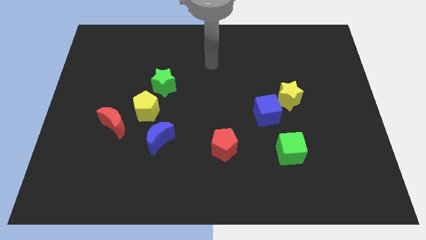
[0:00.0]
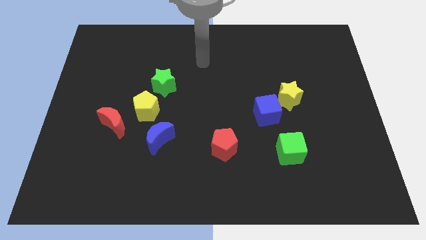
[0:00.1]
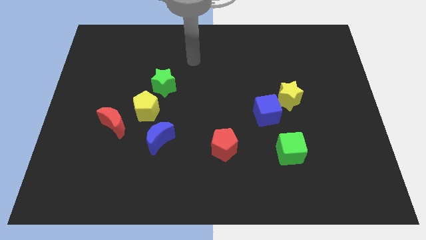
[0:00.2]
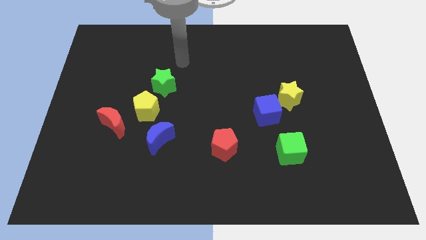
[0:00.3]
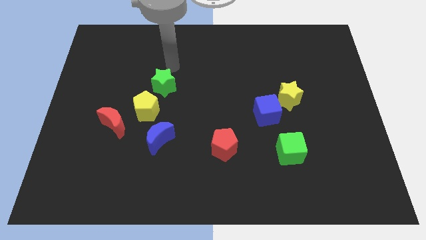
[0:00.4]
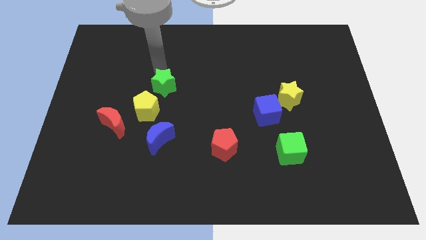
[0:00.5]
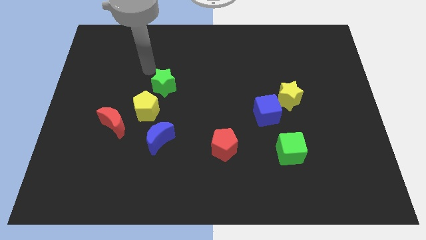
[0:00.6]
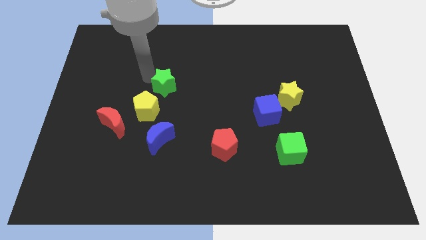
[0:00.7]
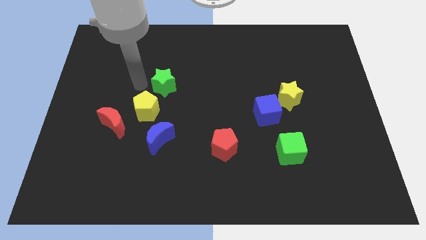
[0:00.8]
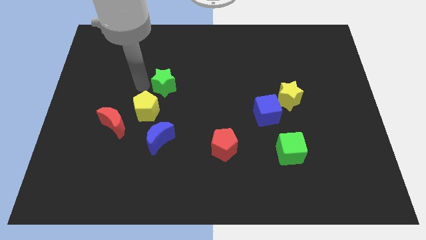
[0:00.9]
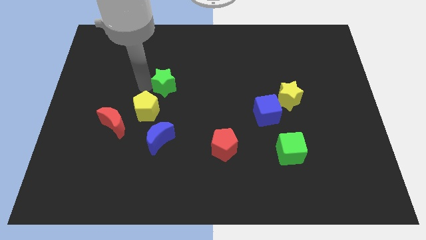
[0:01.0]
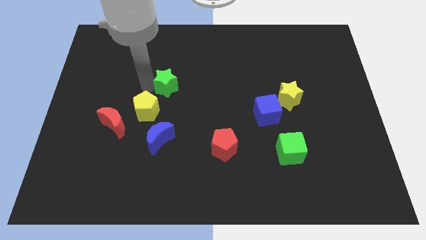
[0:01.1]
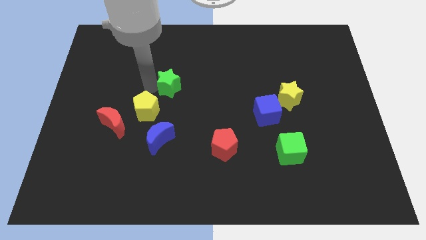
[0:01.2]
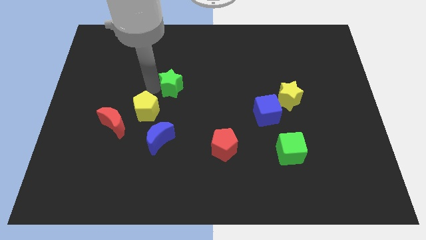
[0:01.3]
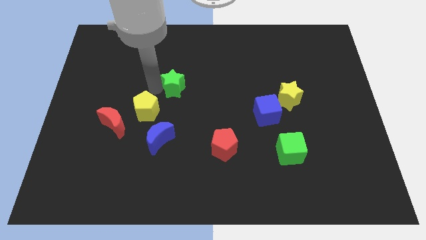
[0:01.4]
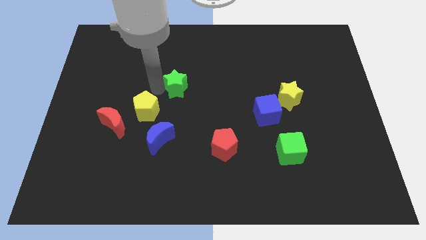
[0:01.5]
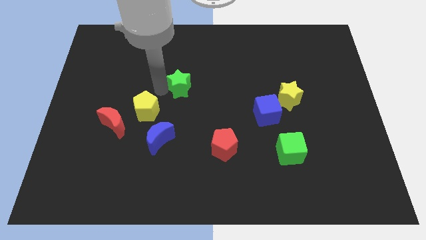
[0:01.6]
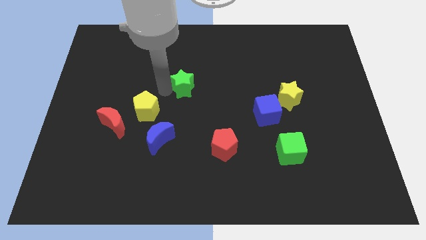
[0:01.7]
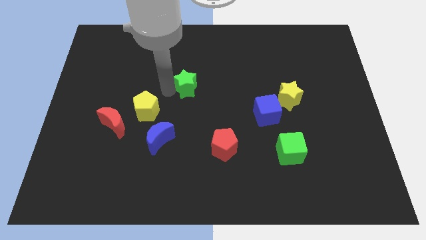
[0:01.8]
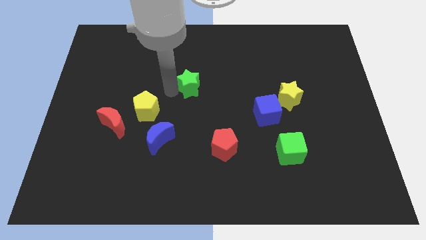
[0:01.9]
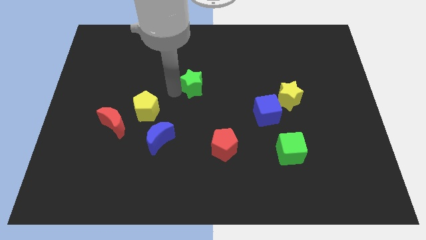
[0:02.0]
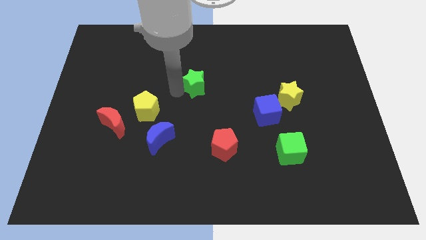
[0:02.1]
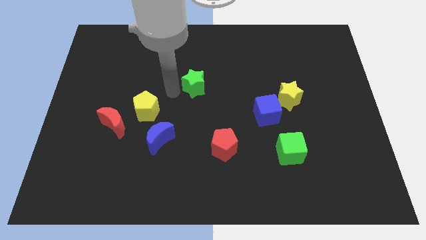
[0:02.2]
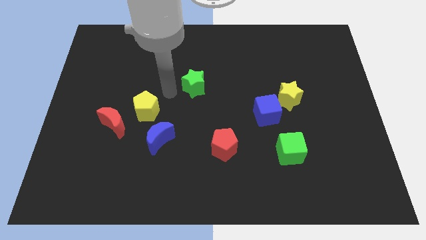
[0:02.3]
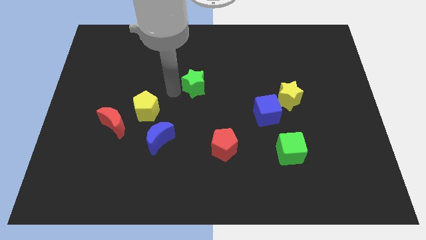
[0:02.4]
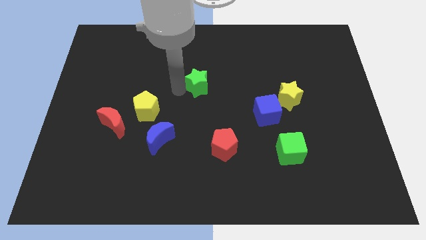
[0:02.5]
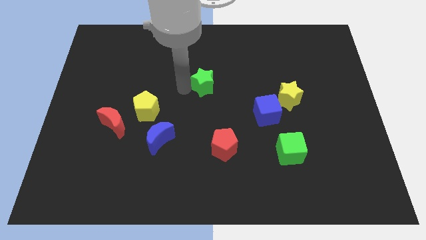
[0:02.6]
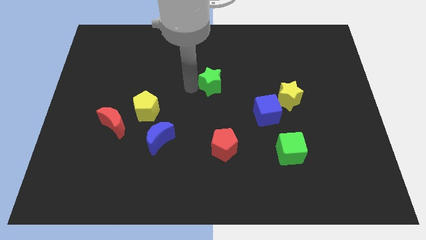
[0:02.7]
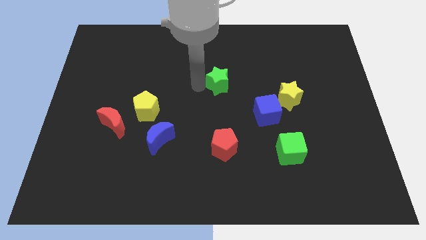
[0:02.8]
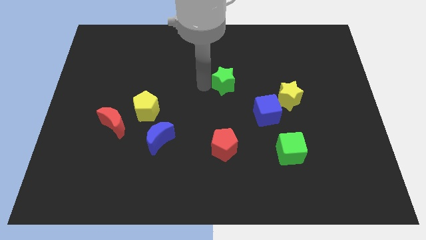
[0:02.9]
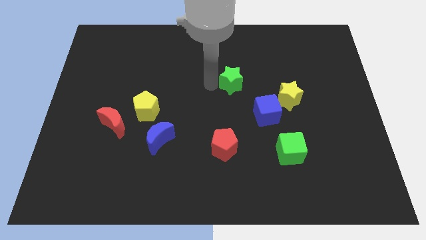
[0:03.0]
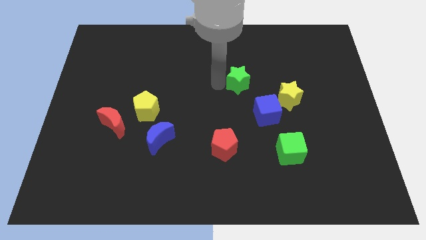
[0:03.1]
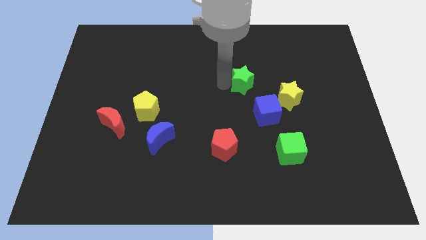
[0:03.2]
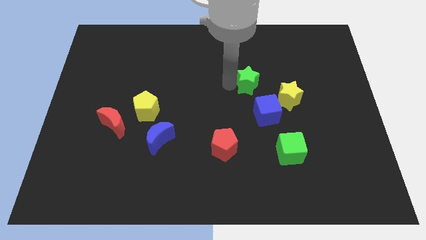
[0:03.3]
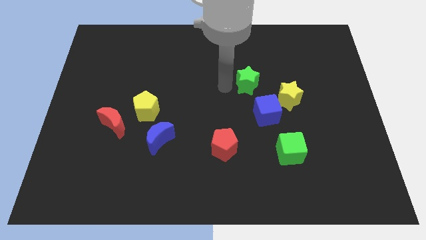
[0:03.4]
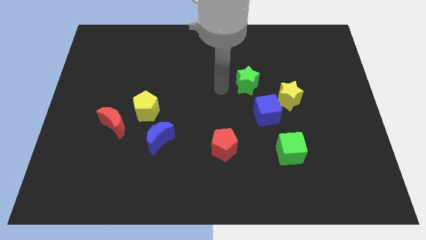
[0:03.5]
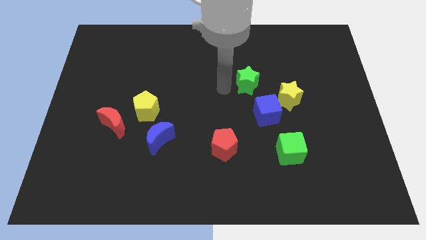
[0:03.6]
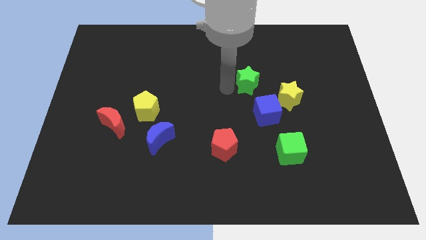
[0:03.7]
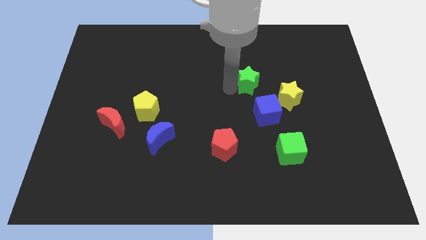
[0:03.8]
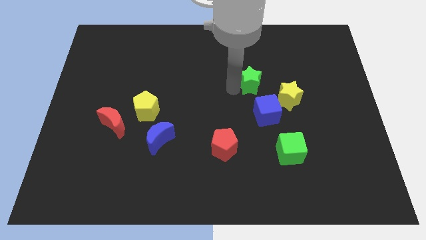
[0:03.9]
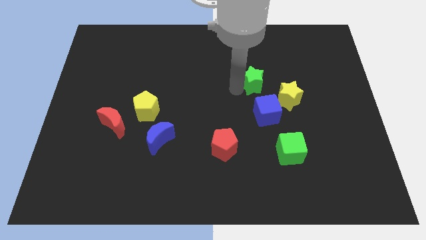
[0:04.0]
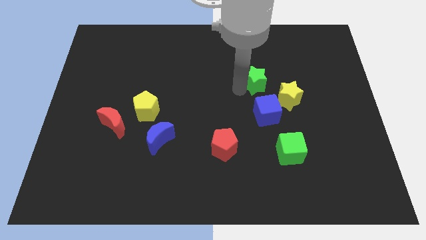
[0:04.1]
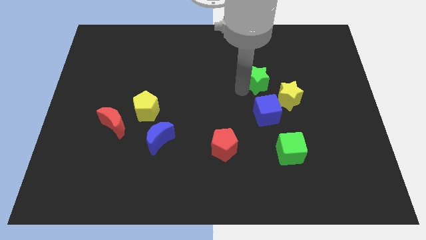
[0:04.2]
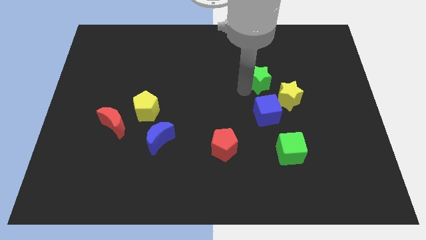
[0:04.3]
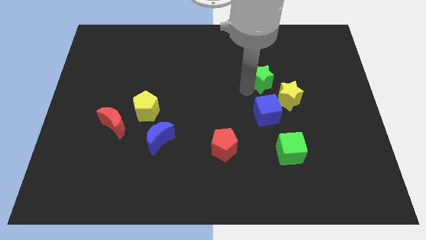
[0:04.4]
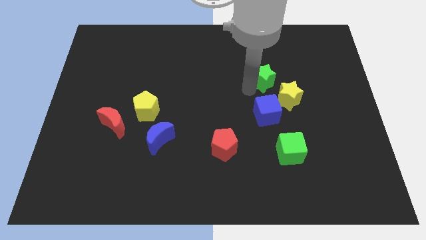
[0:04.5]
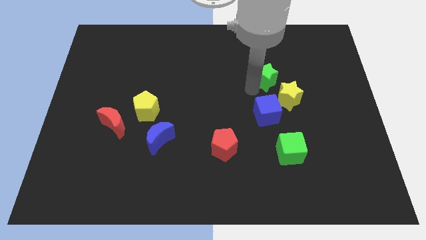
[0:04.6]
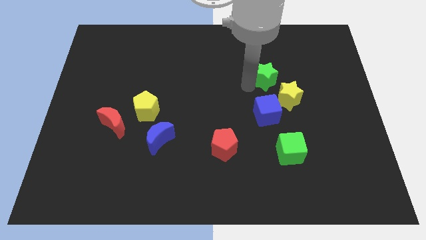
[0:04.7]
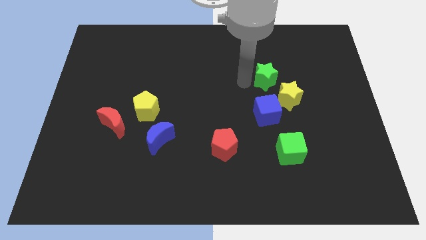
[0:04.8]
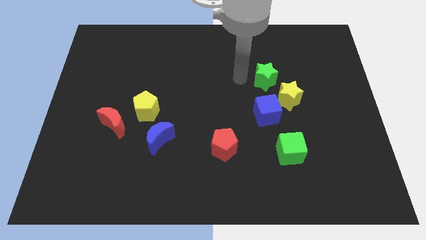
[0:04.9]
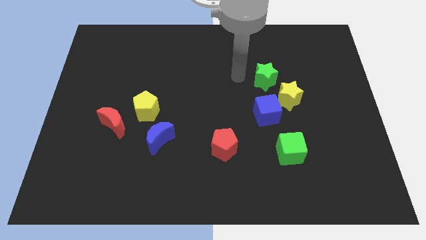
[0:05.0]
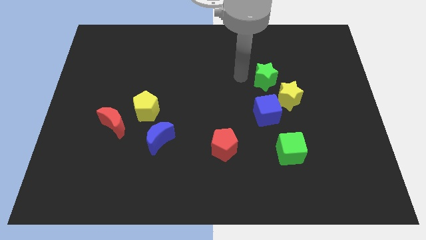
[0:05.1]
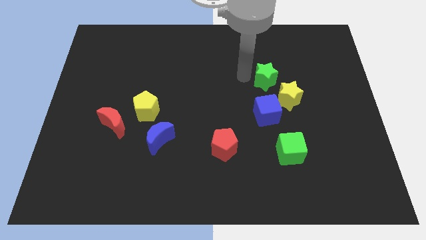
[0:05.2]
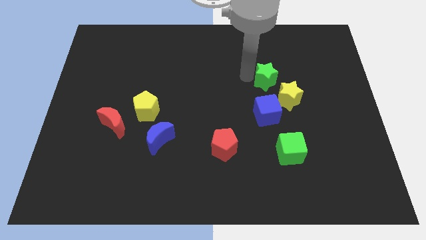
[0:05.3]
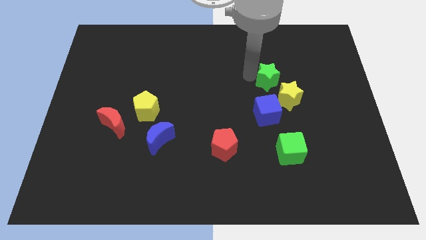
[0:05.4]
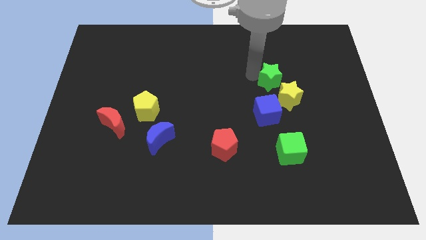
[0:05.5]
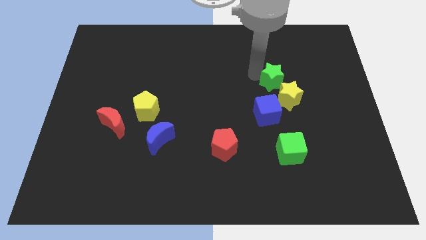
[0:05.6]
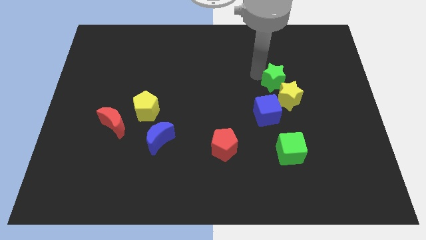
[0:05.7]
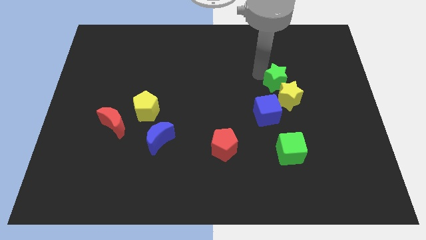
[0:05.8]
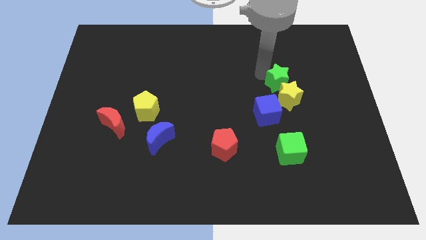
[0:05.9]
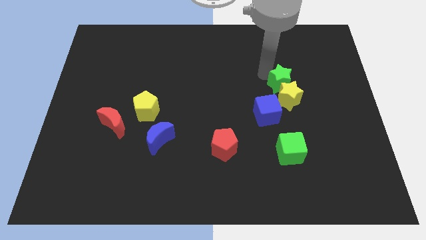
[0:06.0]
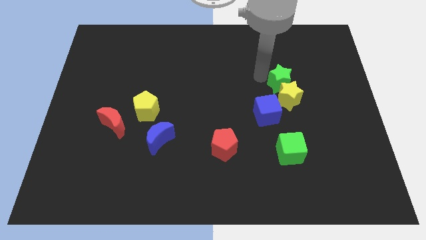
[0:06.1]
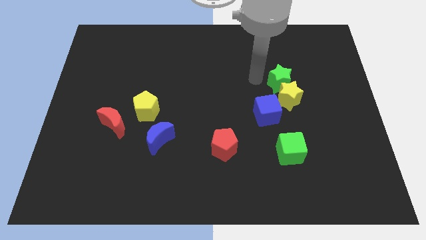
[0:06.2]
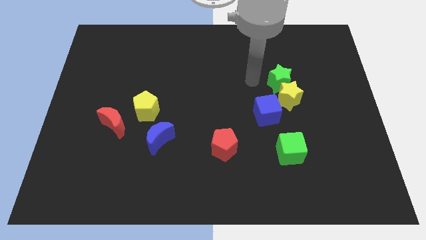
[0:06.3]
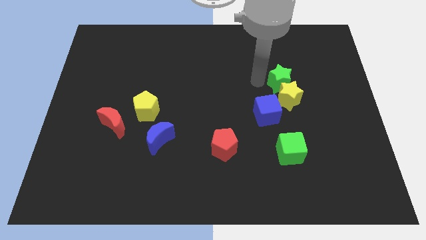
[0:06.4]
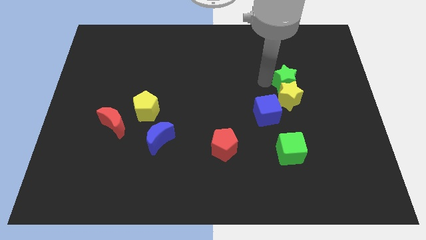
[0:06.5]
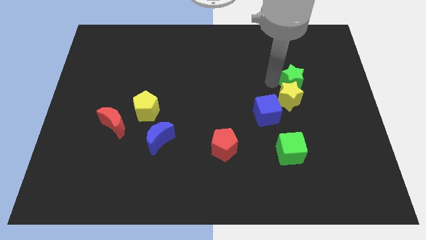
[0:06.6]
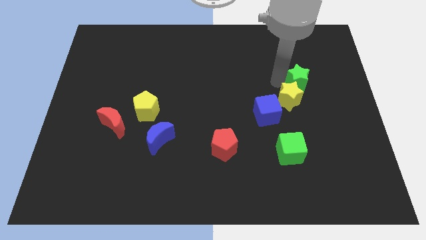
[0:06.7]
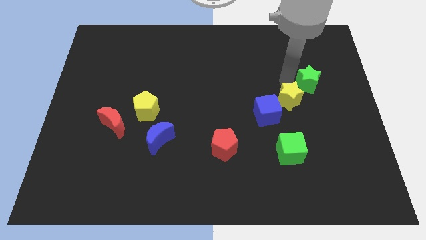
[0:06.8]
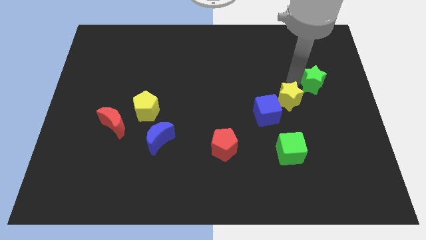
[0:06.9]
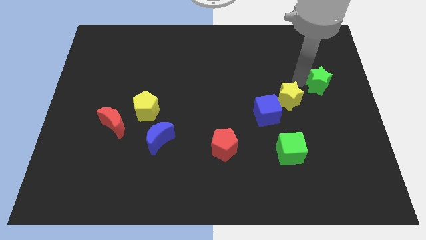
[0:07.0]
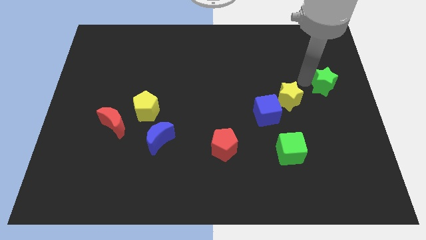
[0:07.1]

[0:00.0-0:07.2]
put the green star to the right side of the board
